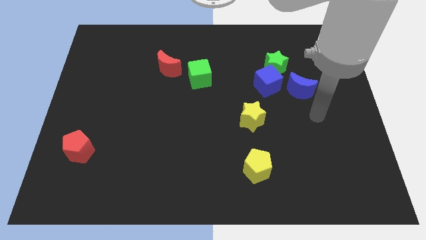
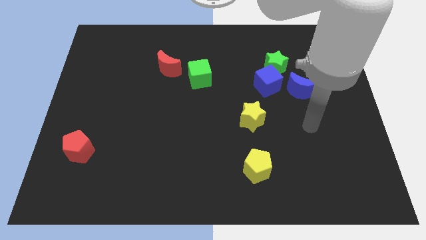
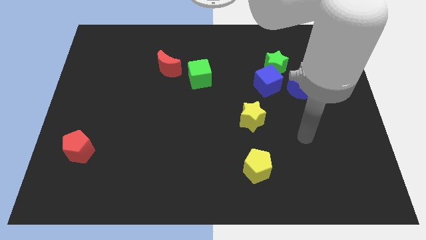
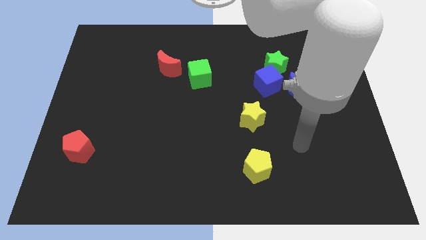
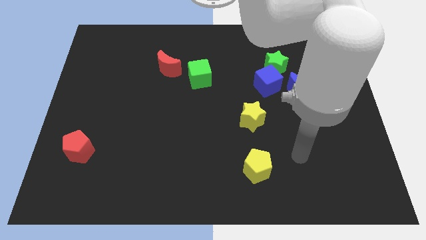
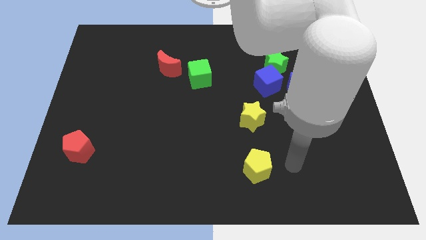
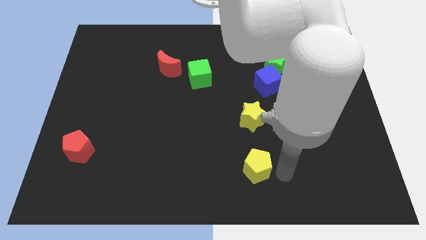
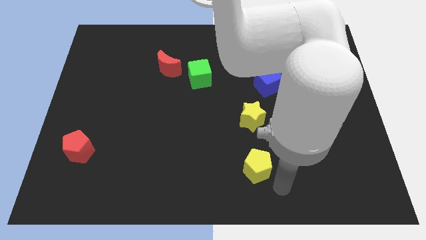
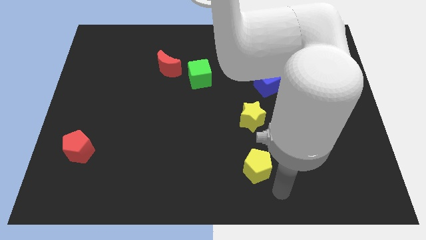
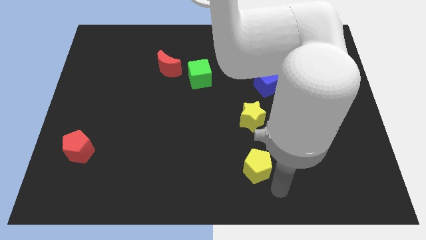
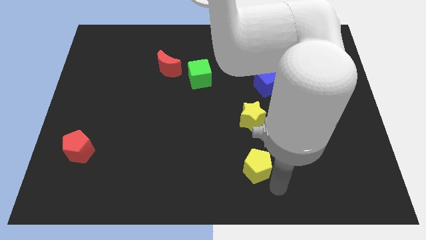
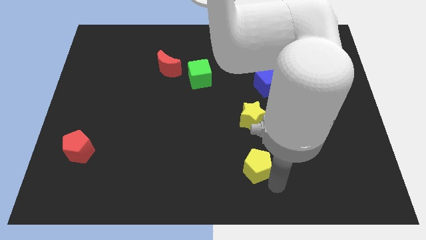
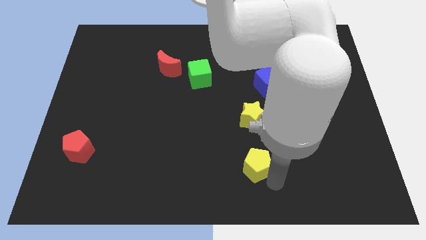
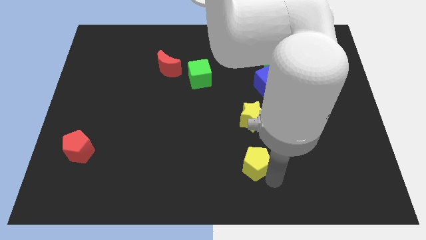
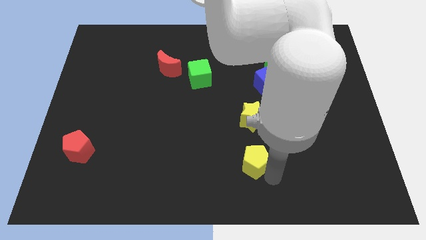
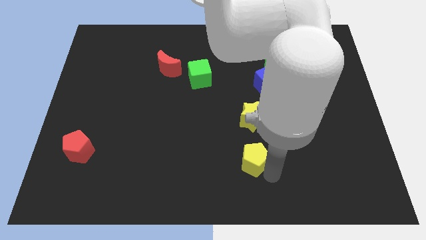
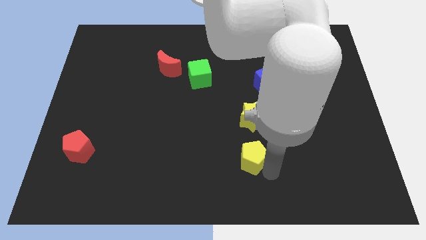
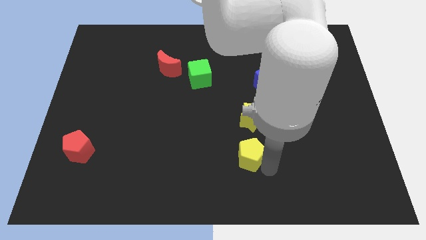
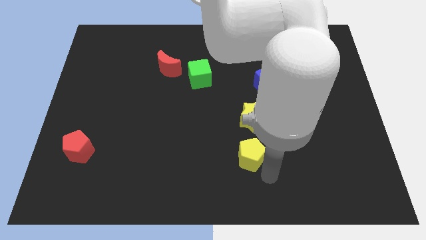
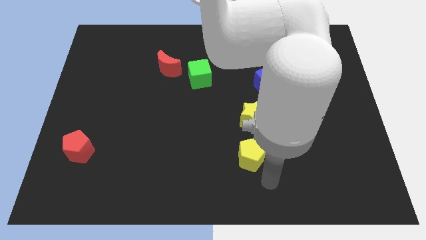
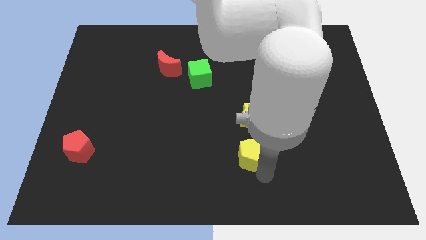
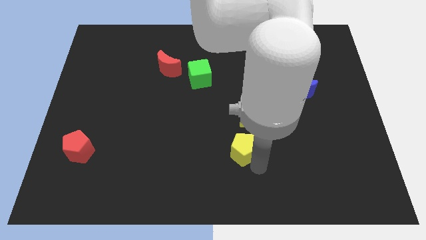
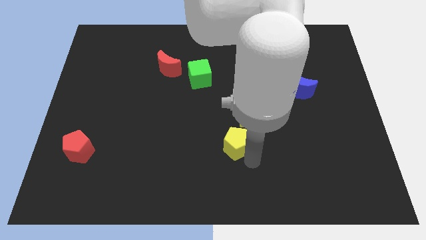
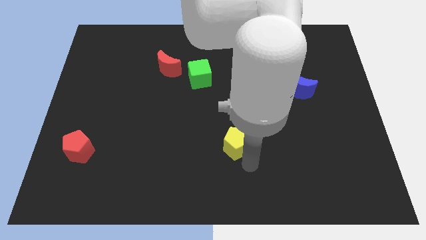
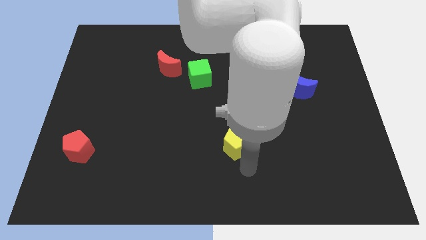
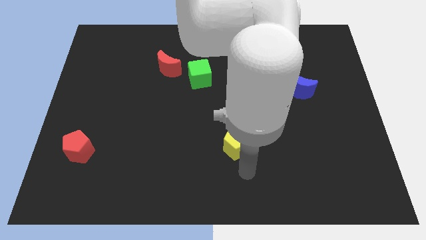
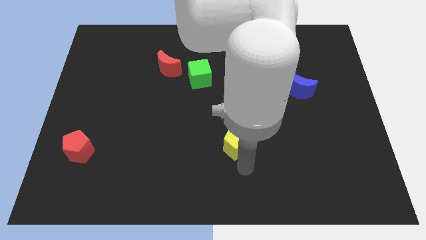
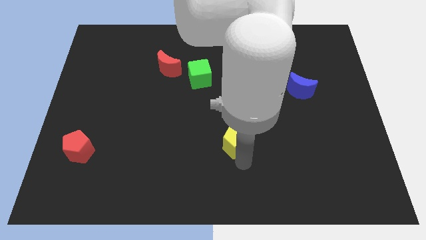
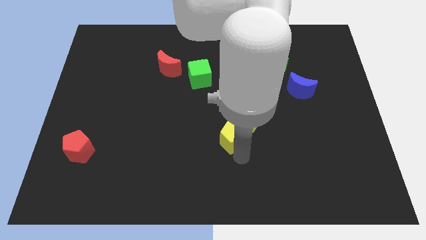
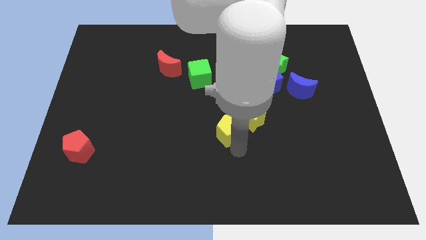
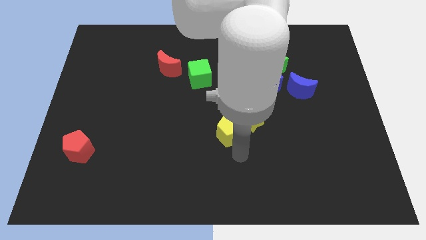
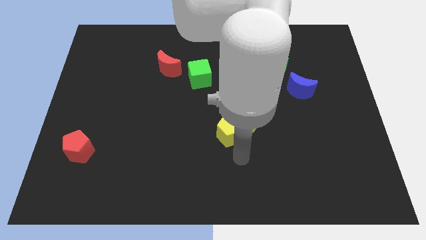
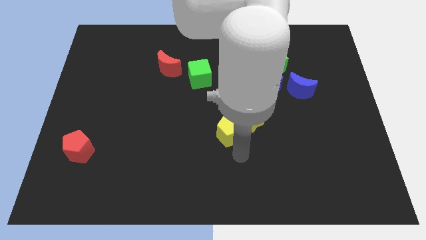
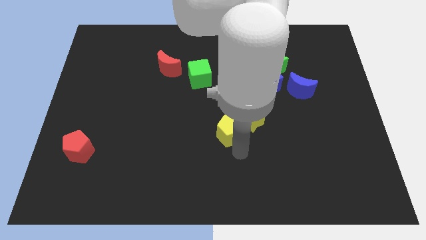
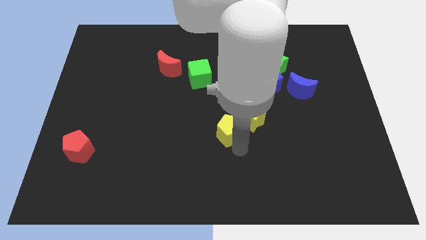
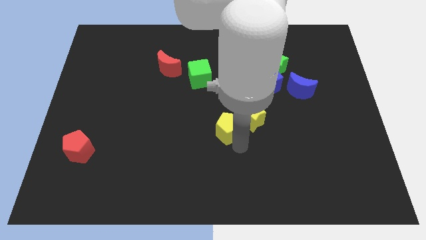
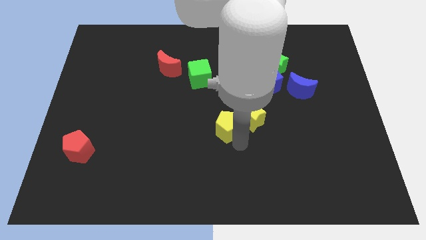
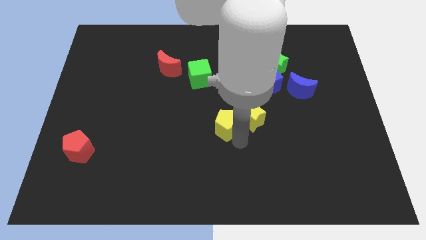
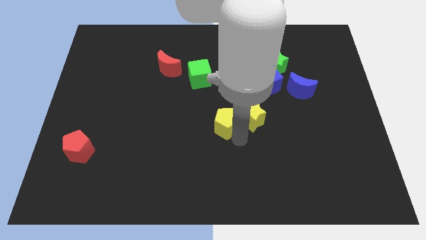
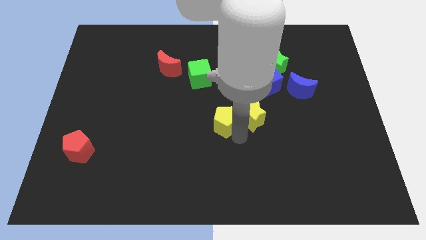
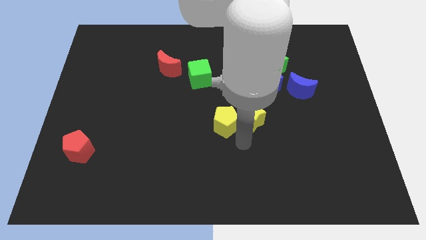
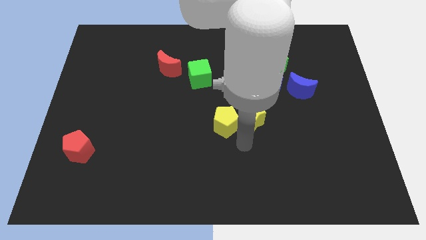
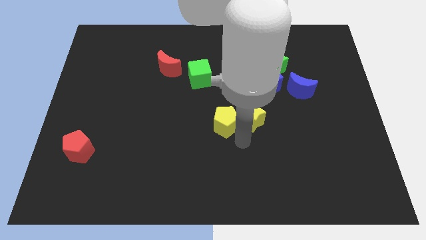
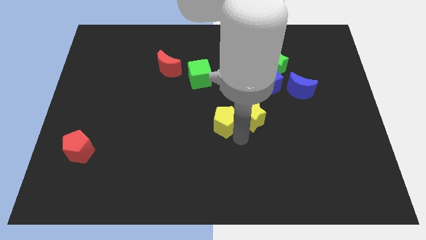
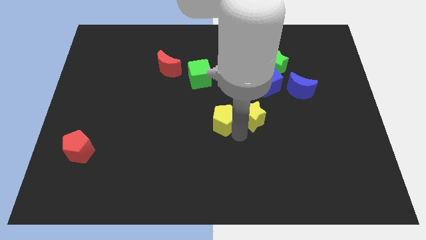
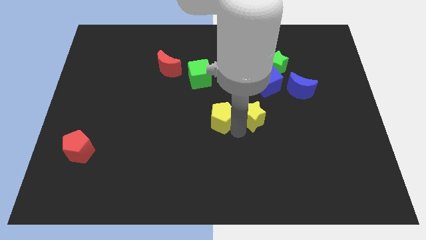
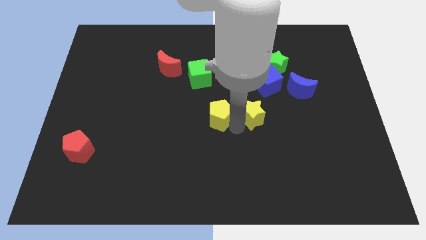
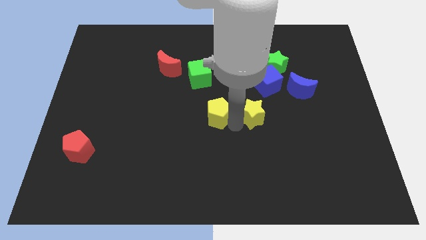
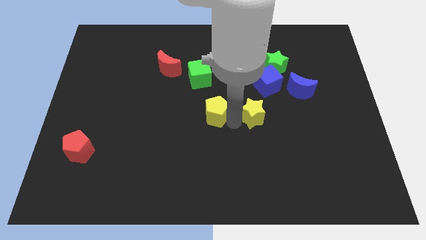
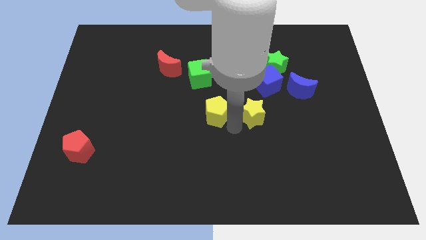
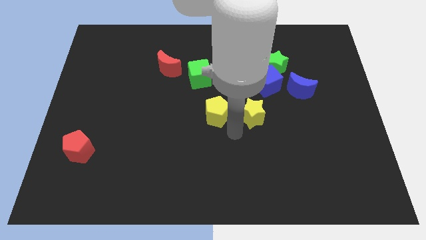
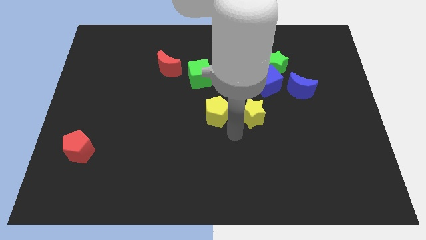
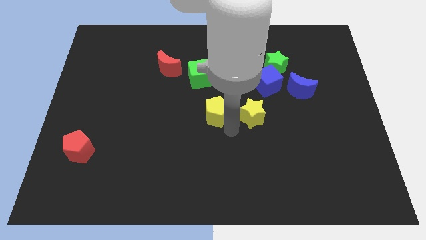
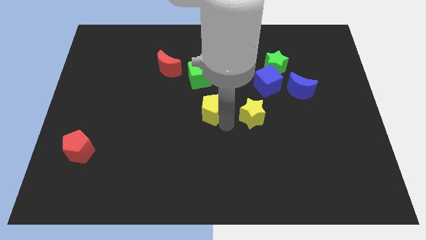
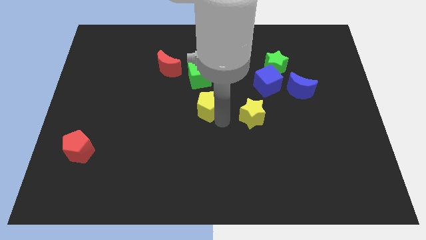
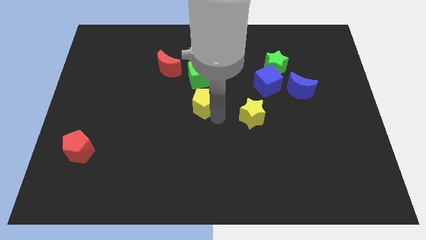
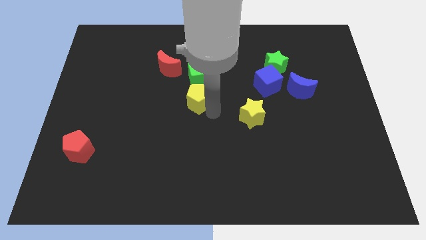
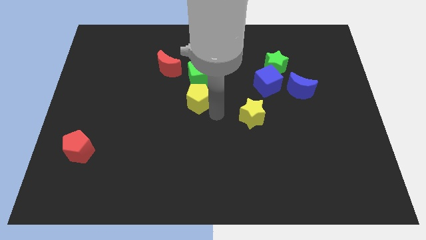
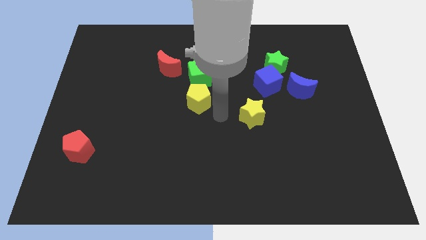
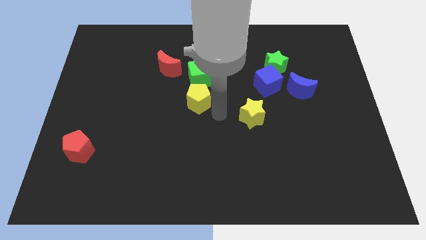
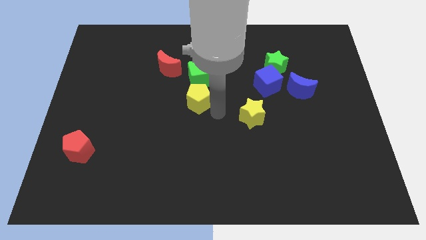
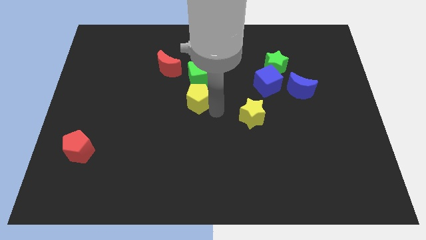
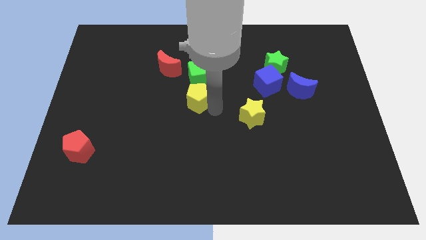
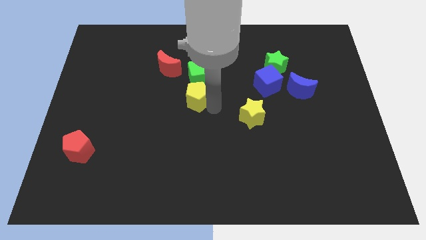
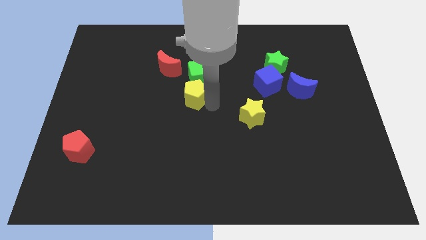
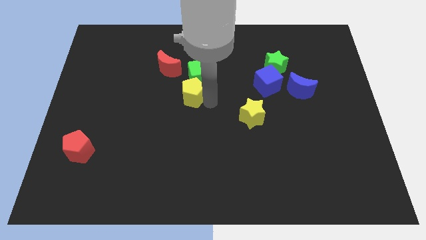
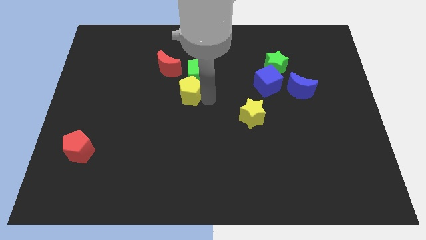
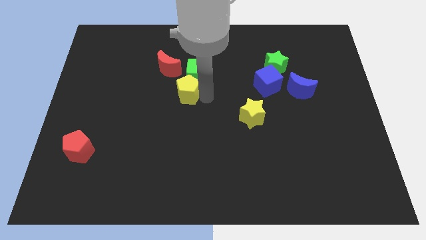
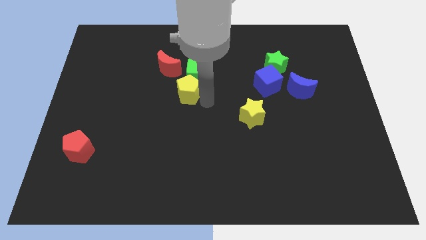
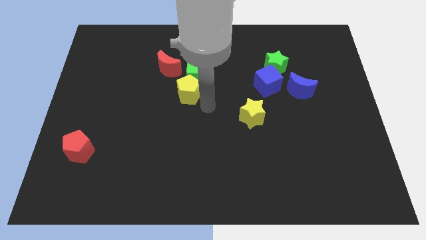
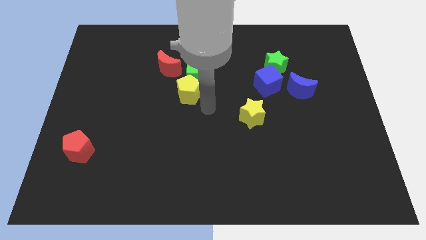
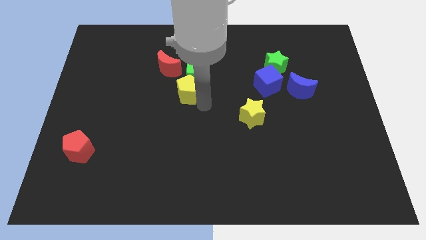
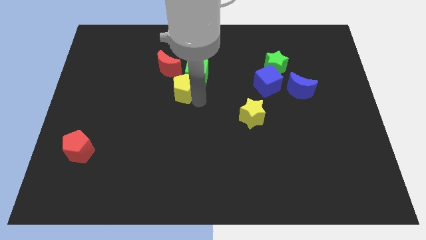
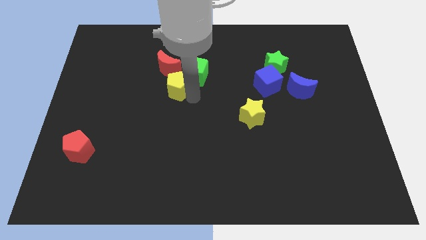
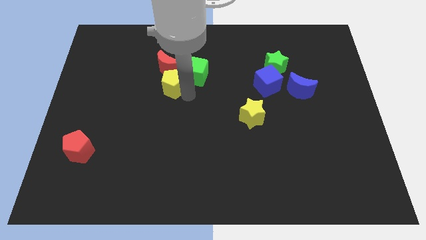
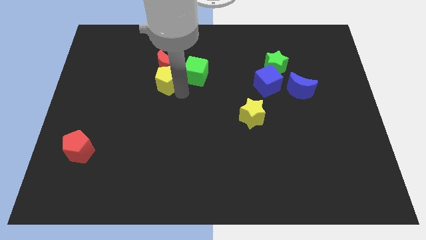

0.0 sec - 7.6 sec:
put the yellow pentagon towards the red moon
